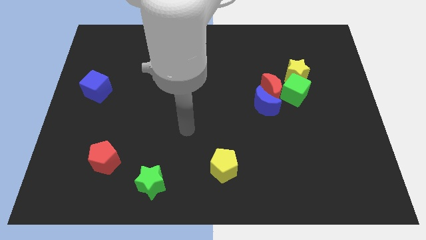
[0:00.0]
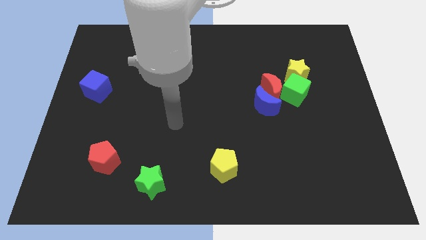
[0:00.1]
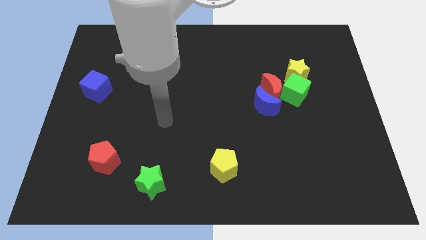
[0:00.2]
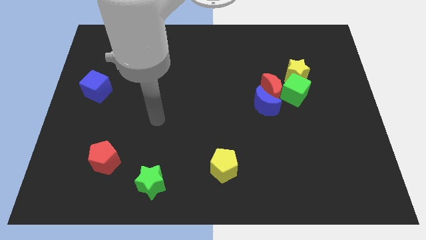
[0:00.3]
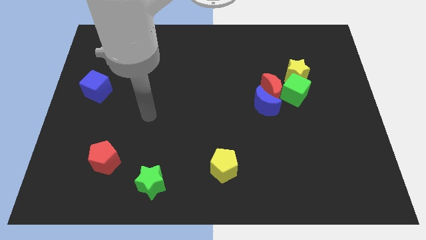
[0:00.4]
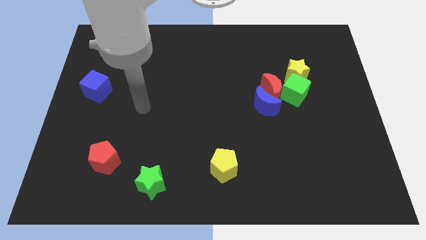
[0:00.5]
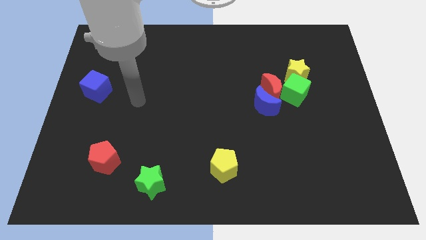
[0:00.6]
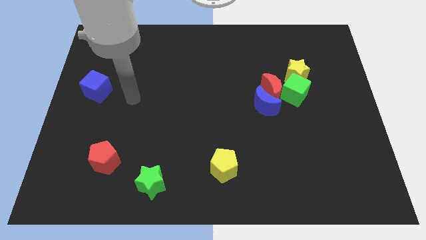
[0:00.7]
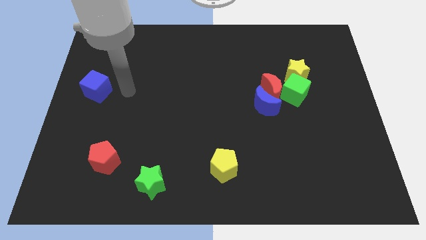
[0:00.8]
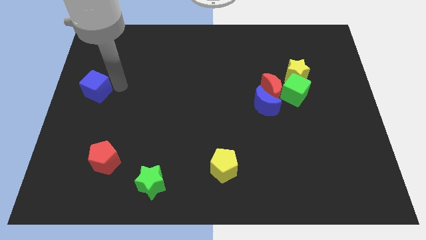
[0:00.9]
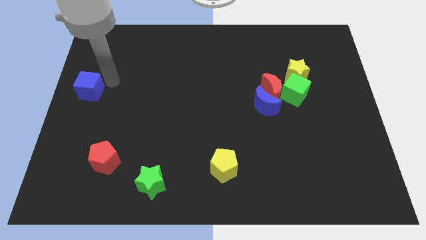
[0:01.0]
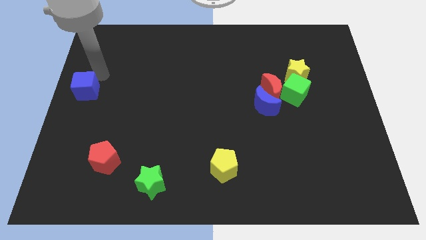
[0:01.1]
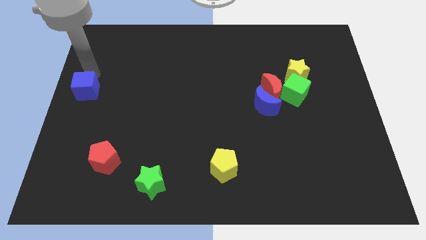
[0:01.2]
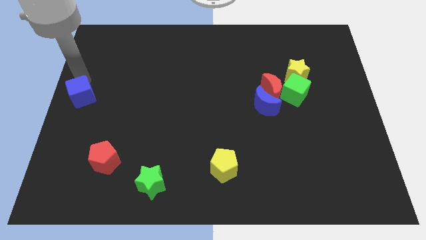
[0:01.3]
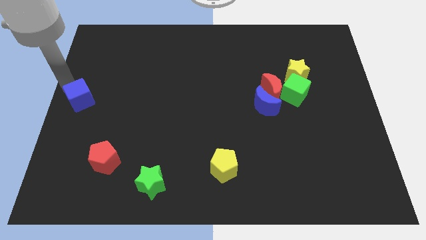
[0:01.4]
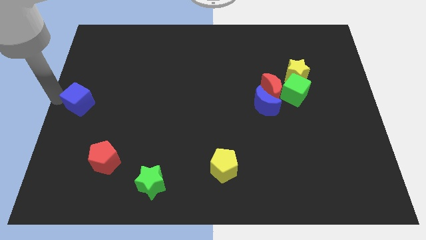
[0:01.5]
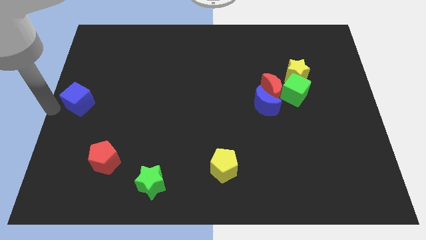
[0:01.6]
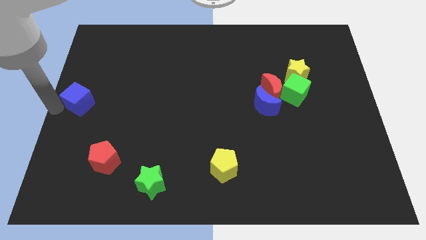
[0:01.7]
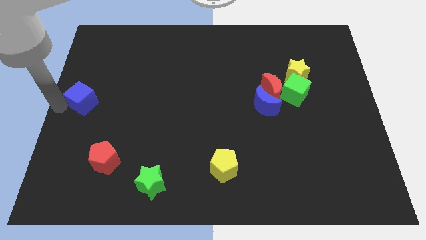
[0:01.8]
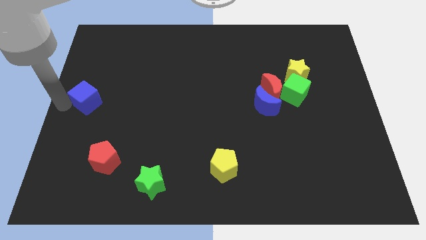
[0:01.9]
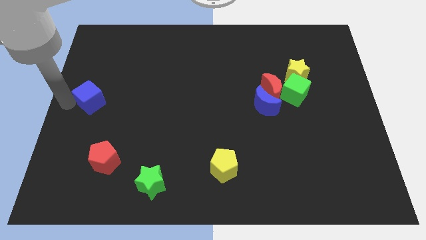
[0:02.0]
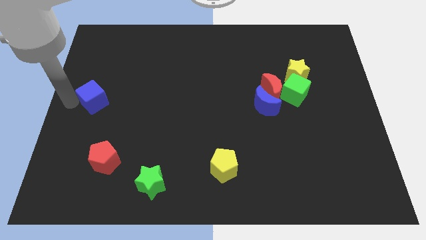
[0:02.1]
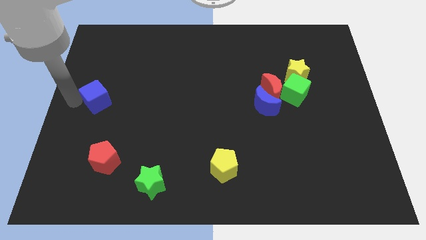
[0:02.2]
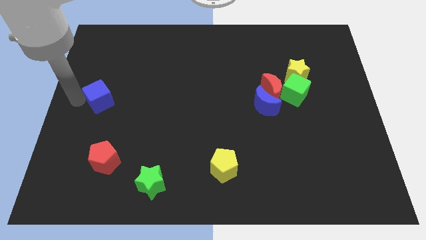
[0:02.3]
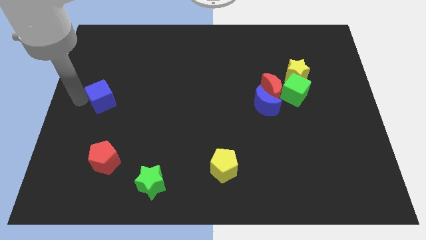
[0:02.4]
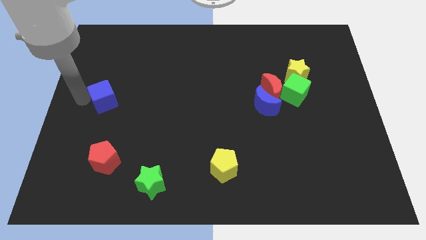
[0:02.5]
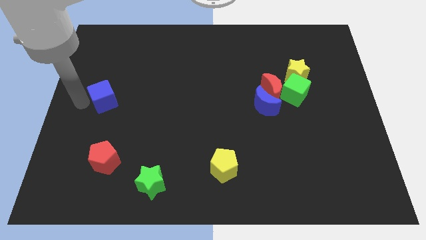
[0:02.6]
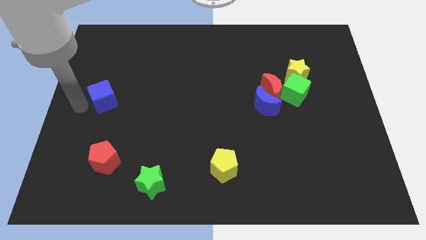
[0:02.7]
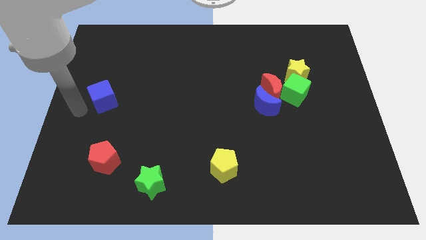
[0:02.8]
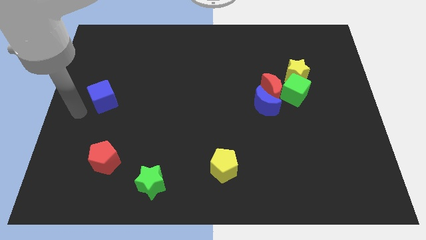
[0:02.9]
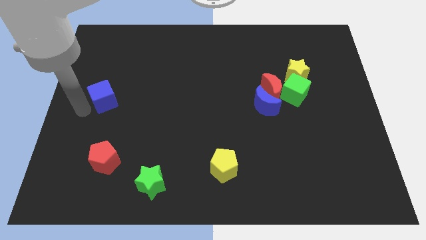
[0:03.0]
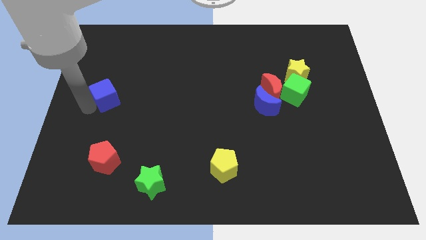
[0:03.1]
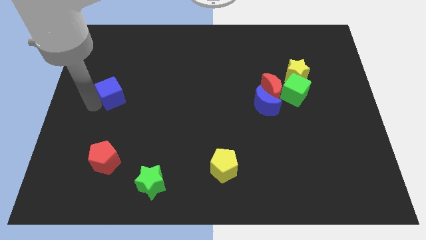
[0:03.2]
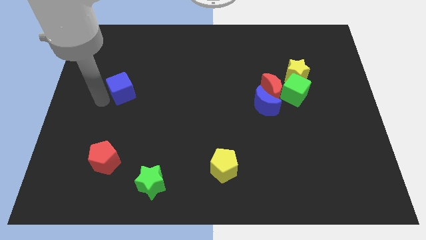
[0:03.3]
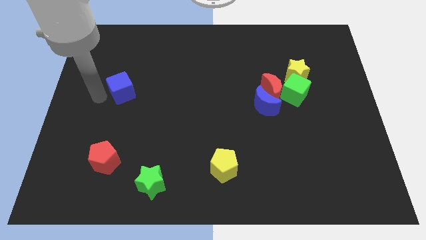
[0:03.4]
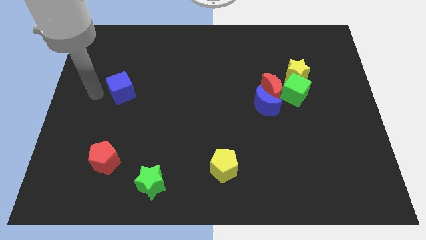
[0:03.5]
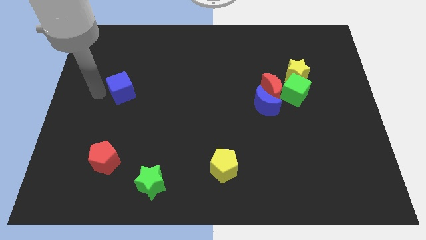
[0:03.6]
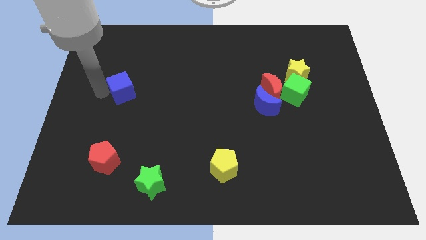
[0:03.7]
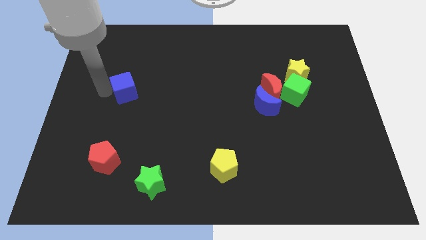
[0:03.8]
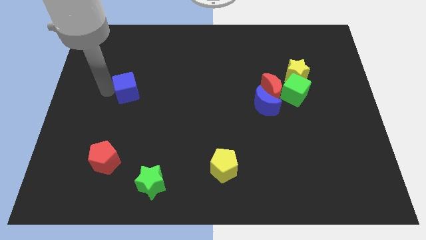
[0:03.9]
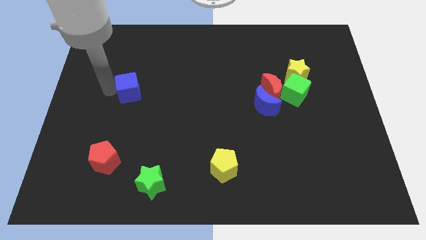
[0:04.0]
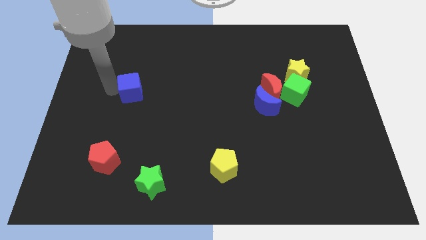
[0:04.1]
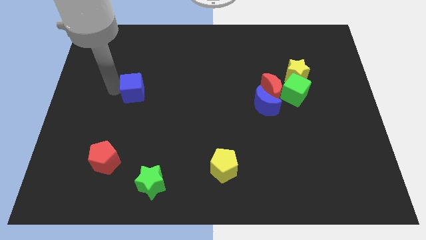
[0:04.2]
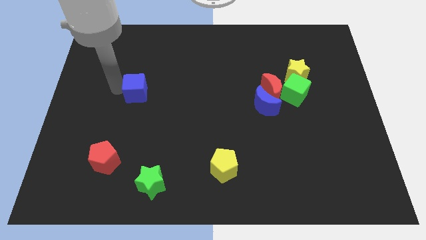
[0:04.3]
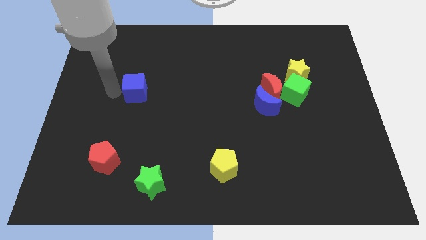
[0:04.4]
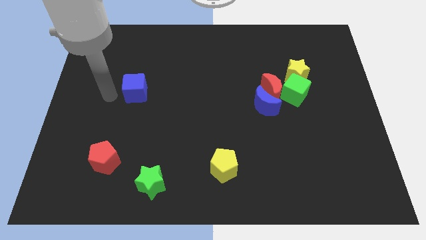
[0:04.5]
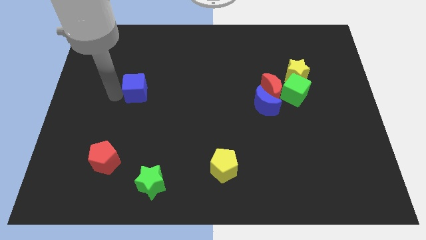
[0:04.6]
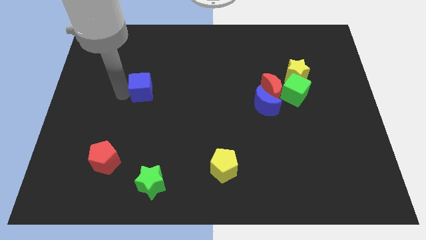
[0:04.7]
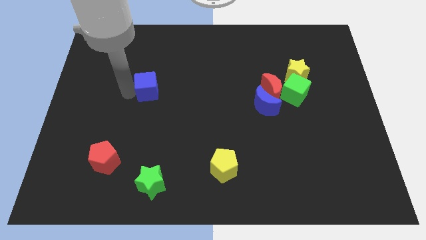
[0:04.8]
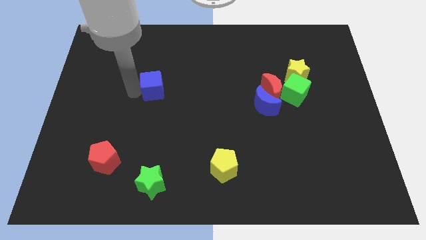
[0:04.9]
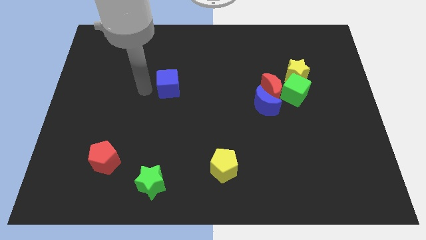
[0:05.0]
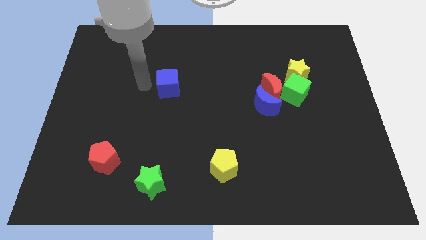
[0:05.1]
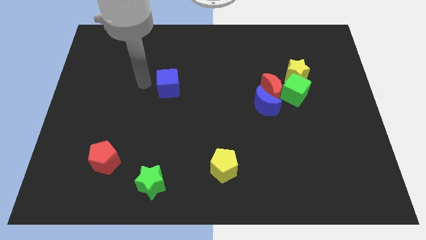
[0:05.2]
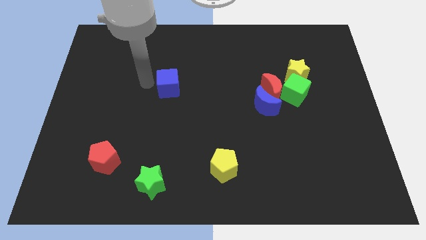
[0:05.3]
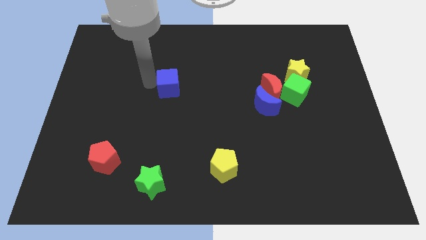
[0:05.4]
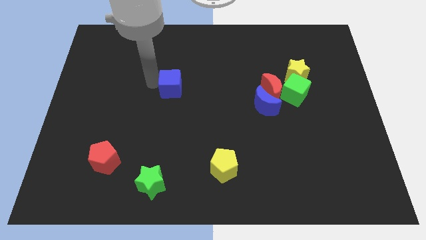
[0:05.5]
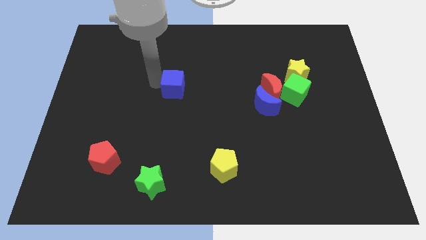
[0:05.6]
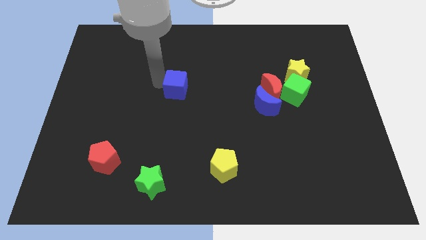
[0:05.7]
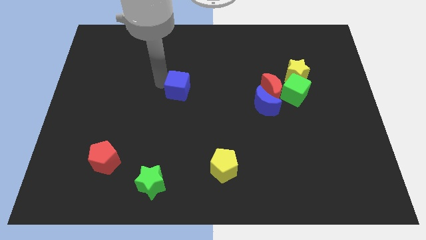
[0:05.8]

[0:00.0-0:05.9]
push the blue cube right

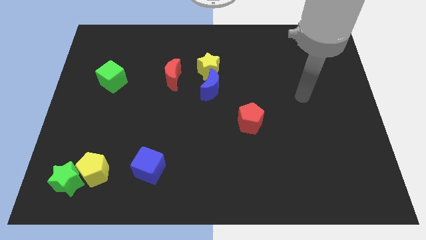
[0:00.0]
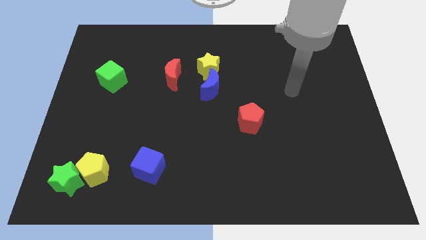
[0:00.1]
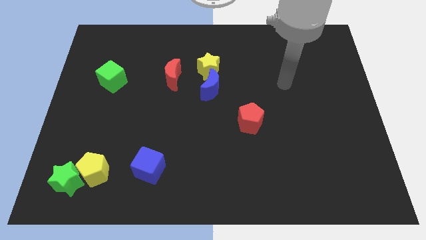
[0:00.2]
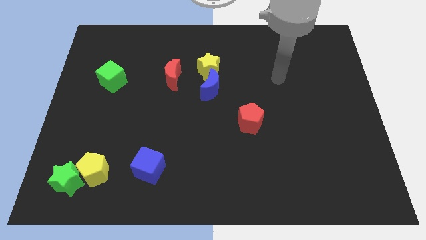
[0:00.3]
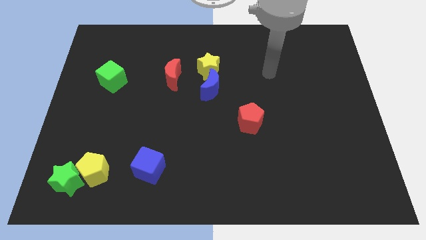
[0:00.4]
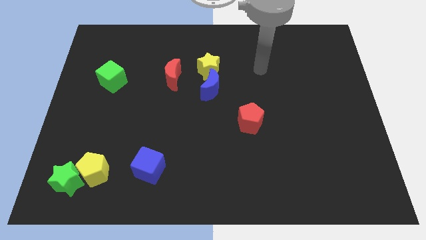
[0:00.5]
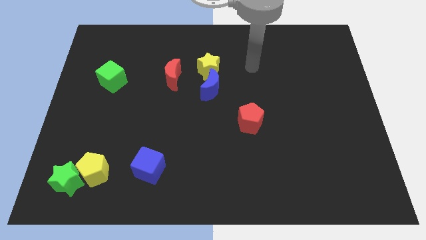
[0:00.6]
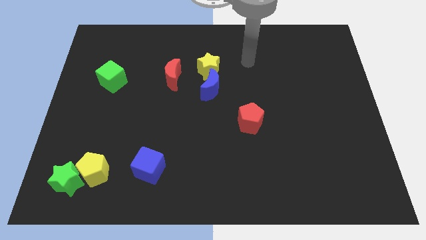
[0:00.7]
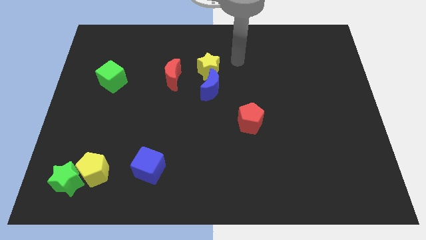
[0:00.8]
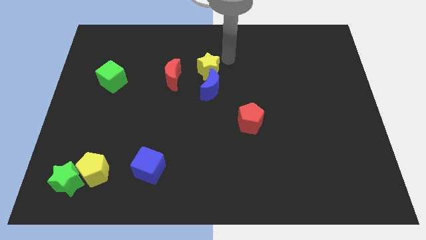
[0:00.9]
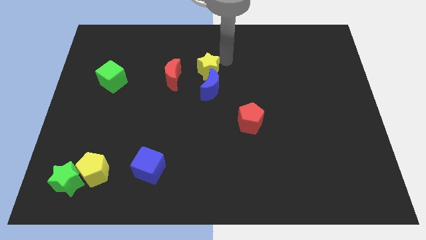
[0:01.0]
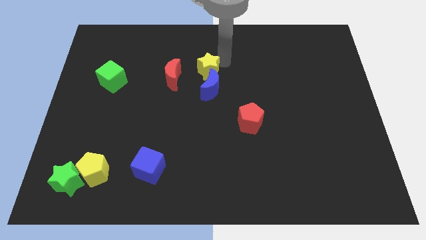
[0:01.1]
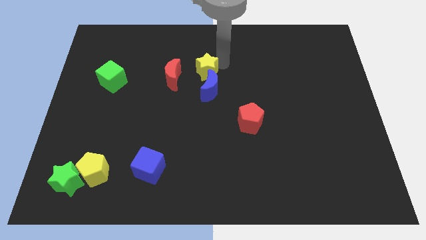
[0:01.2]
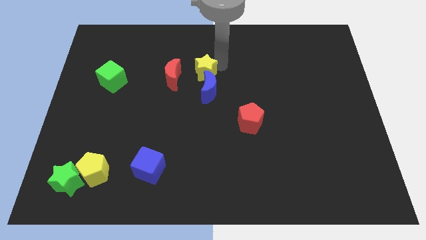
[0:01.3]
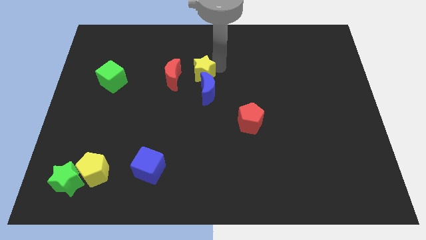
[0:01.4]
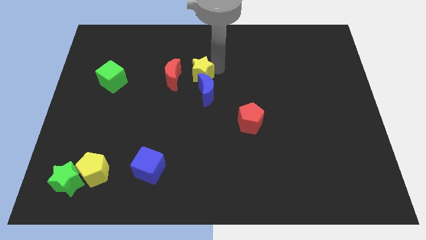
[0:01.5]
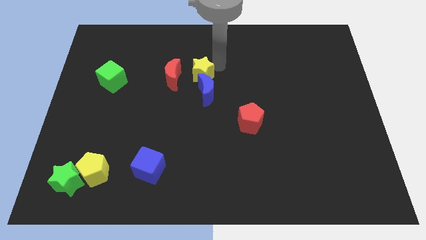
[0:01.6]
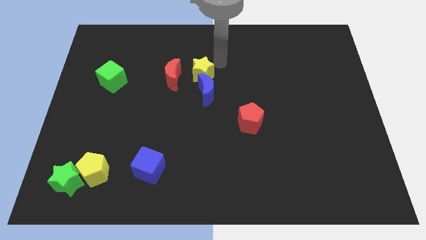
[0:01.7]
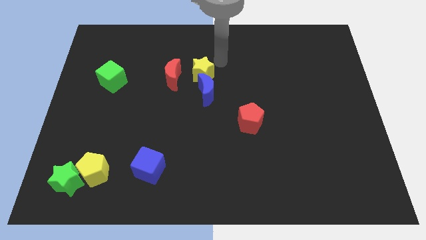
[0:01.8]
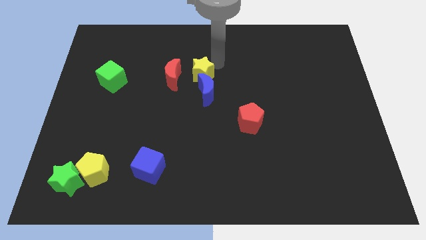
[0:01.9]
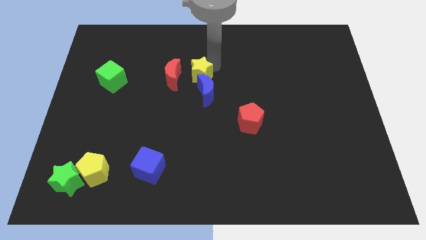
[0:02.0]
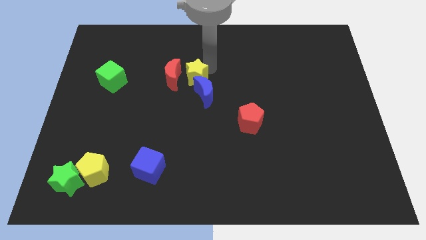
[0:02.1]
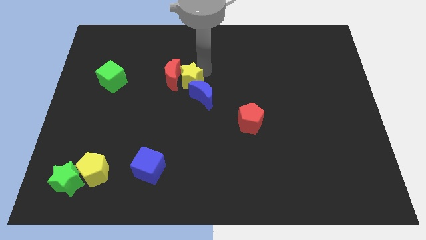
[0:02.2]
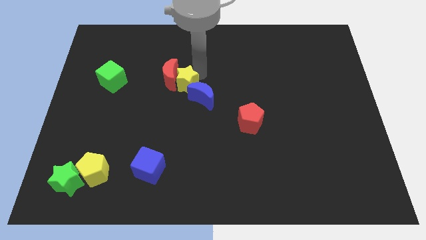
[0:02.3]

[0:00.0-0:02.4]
move the yellow star downwards and then left a little bit
